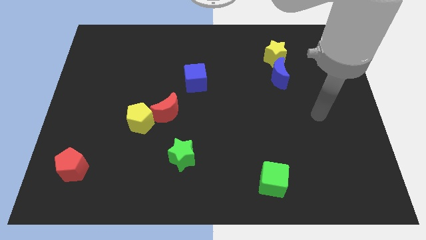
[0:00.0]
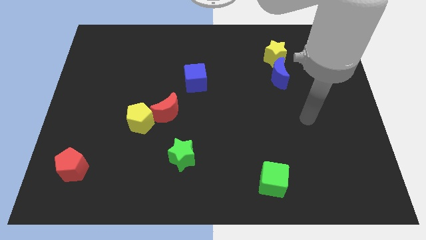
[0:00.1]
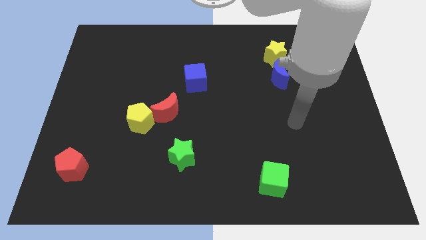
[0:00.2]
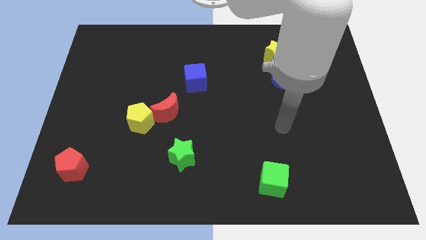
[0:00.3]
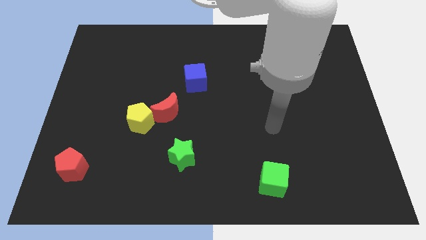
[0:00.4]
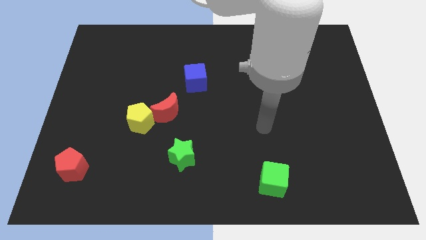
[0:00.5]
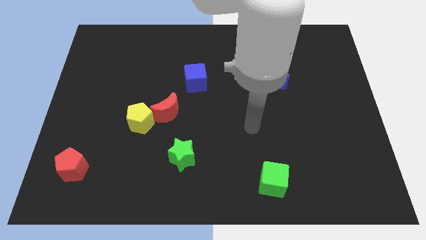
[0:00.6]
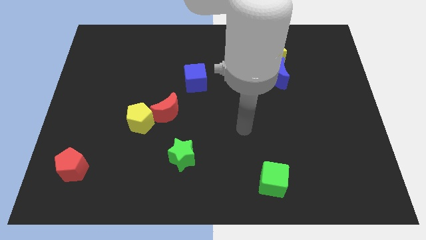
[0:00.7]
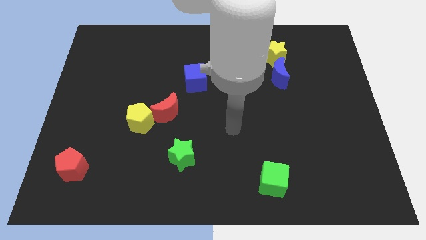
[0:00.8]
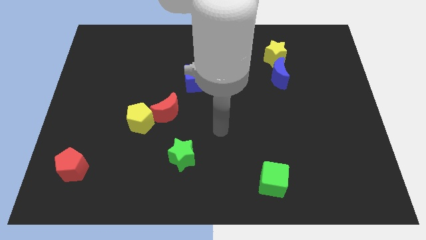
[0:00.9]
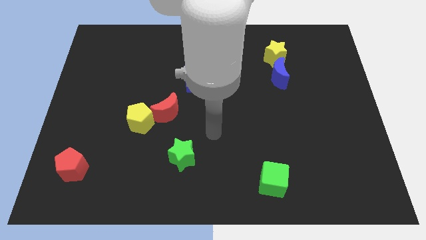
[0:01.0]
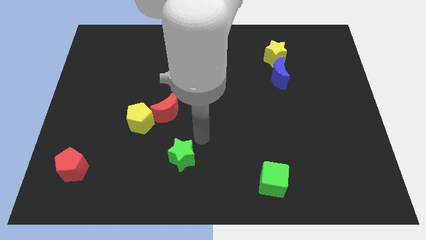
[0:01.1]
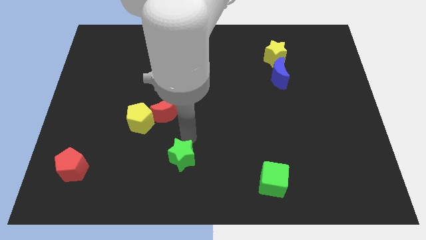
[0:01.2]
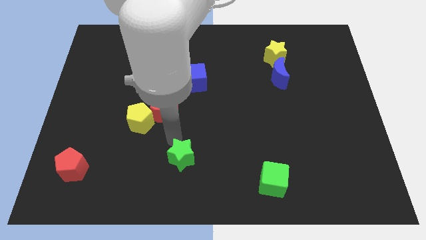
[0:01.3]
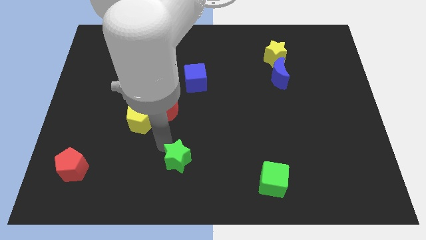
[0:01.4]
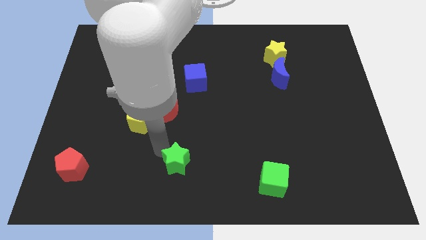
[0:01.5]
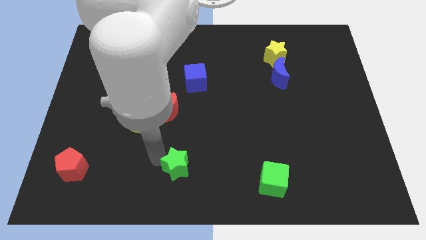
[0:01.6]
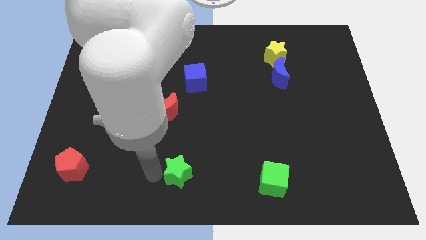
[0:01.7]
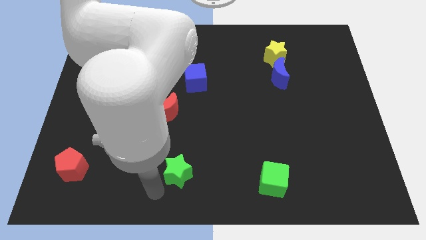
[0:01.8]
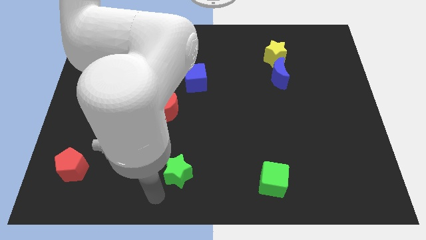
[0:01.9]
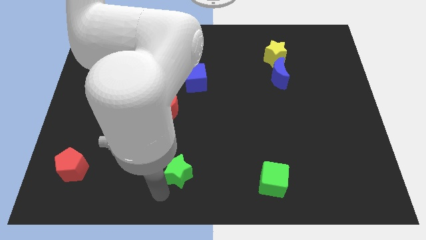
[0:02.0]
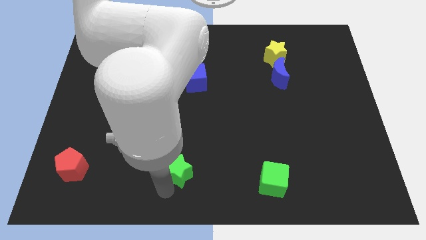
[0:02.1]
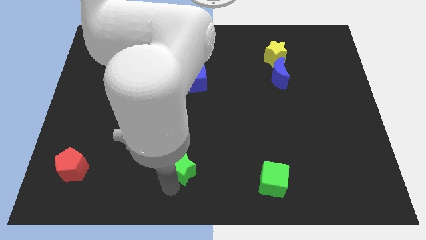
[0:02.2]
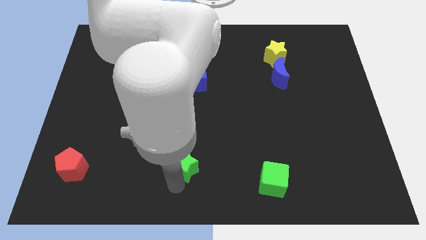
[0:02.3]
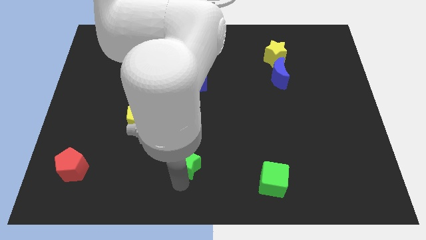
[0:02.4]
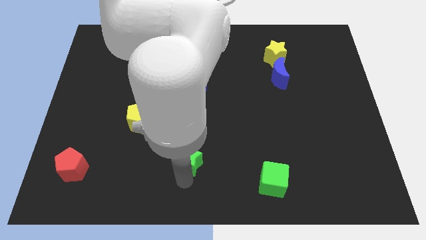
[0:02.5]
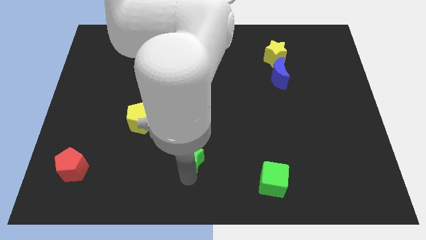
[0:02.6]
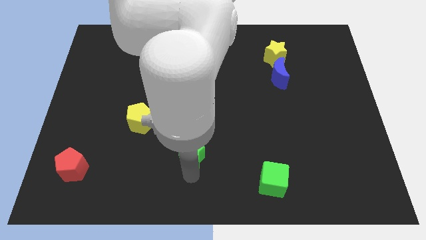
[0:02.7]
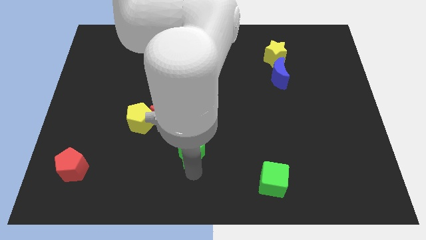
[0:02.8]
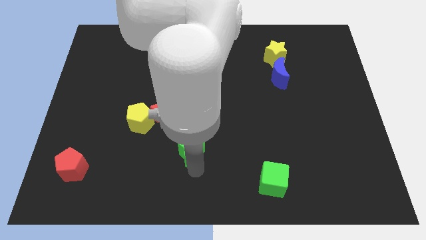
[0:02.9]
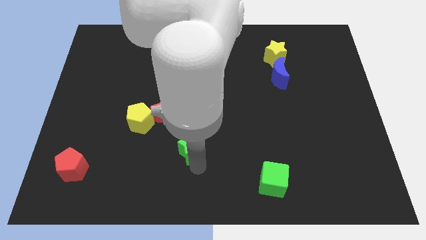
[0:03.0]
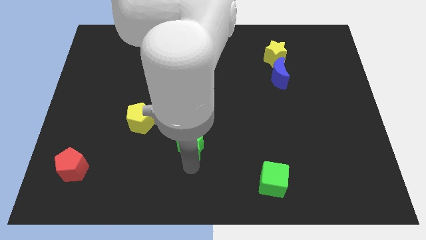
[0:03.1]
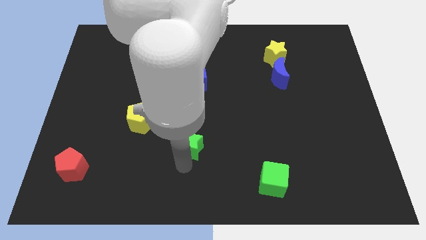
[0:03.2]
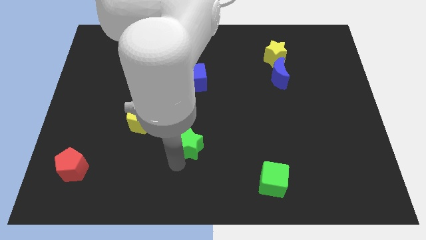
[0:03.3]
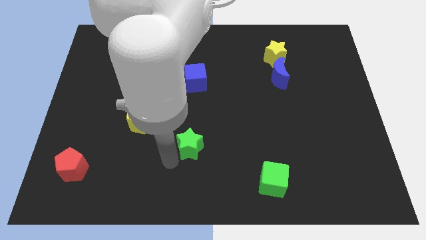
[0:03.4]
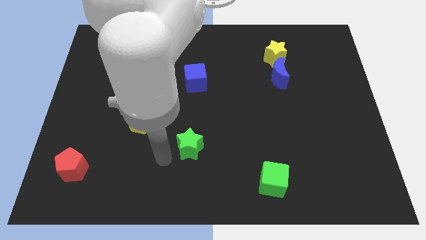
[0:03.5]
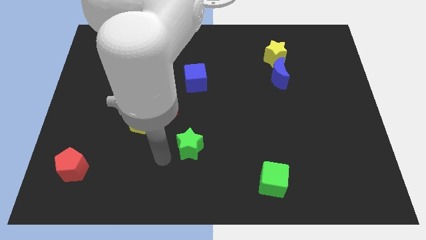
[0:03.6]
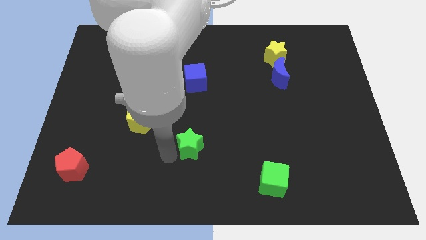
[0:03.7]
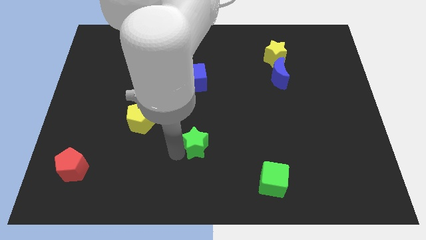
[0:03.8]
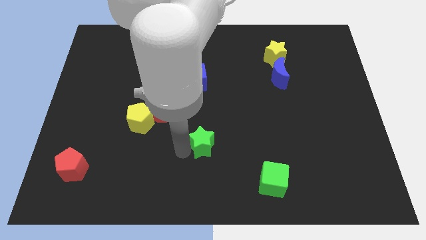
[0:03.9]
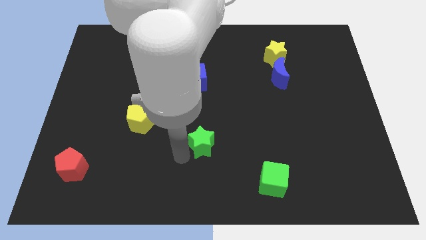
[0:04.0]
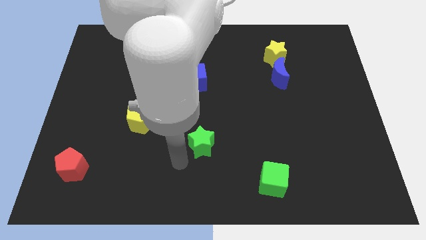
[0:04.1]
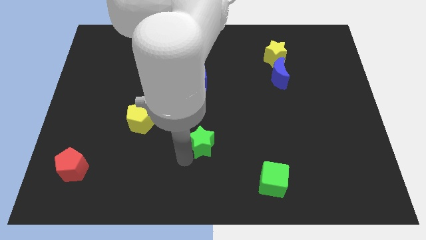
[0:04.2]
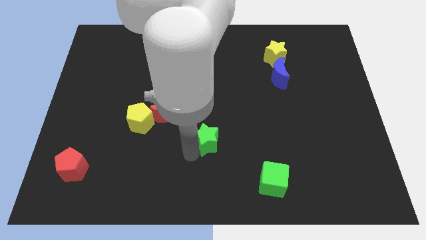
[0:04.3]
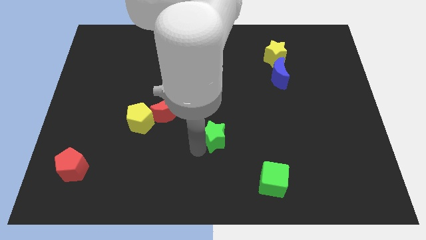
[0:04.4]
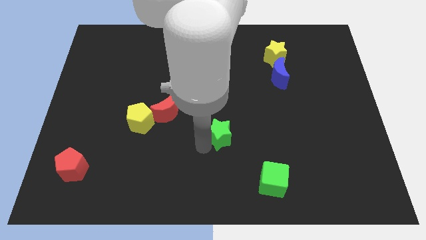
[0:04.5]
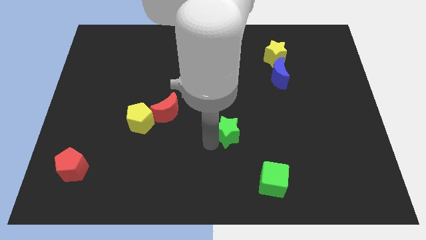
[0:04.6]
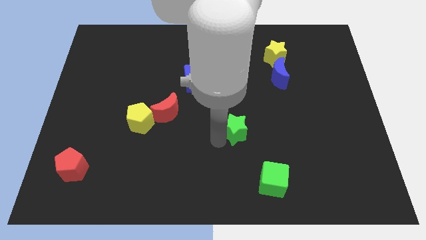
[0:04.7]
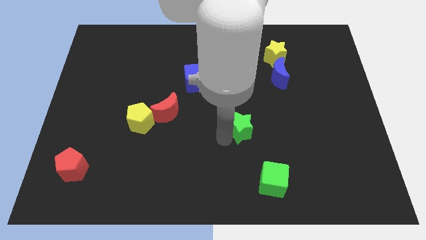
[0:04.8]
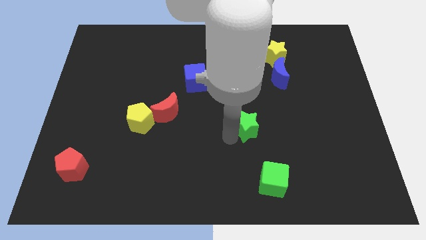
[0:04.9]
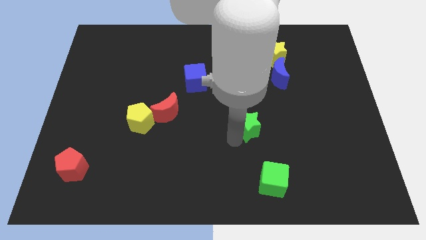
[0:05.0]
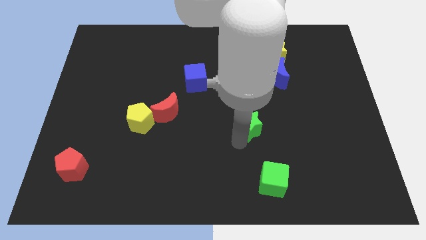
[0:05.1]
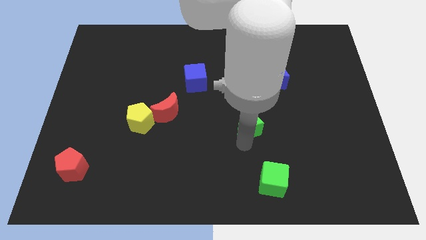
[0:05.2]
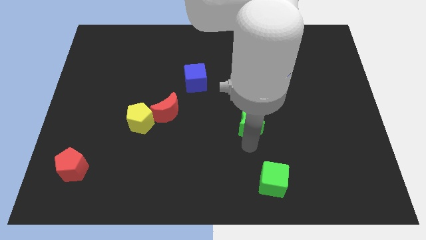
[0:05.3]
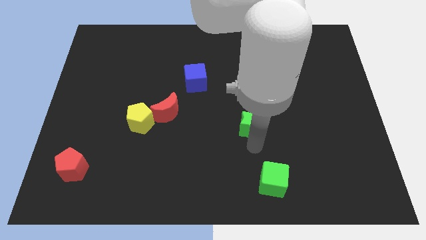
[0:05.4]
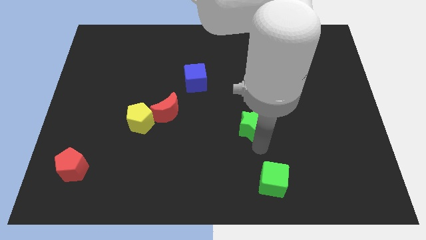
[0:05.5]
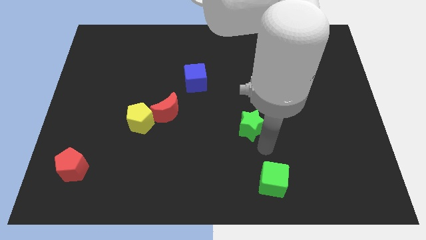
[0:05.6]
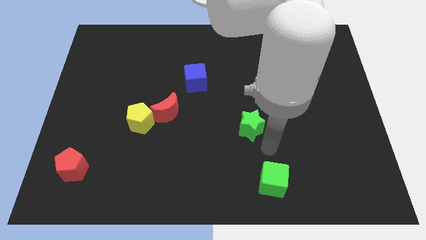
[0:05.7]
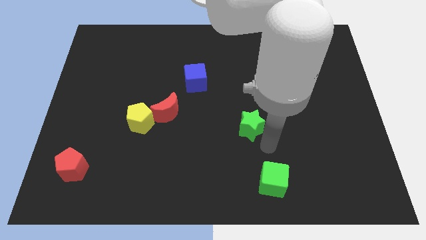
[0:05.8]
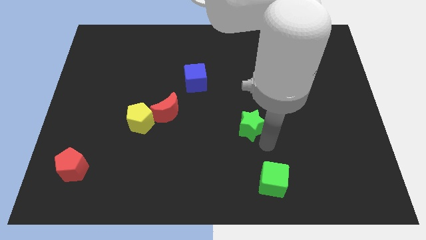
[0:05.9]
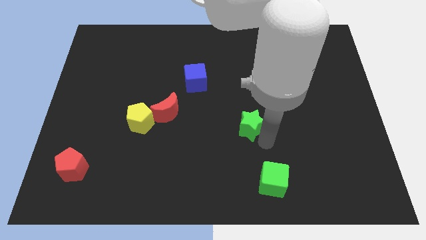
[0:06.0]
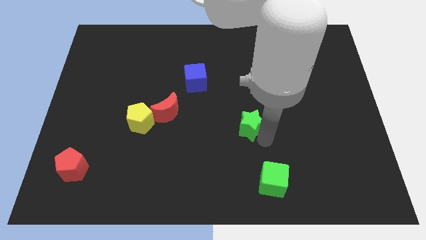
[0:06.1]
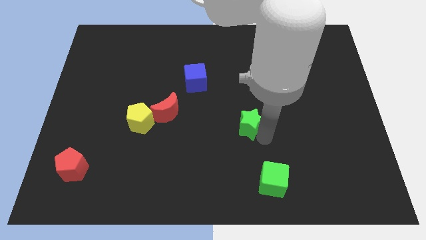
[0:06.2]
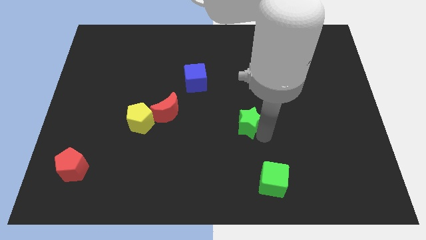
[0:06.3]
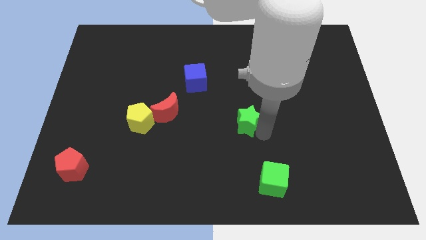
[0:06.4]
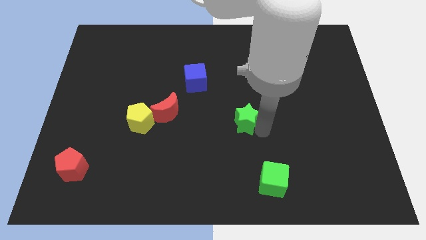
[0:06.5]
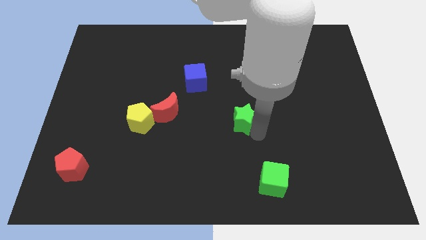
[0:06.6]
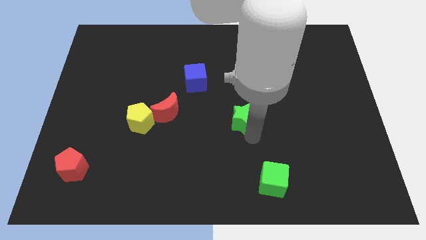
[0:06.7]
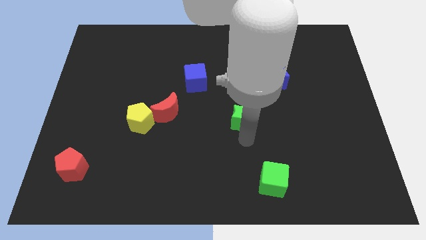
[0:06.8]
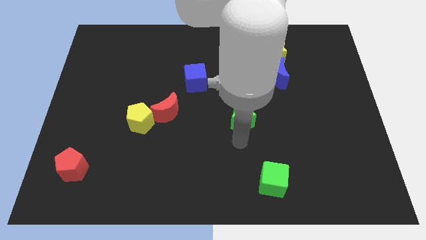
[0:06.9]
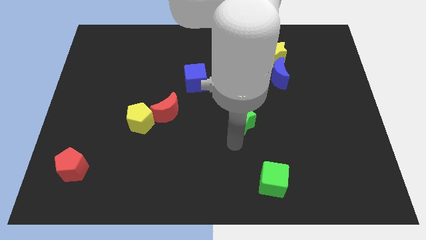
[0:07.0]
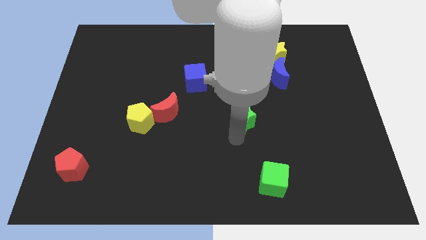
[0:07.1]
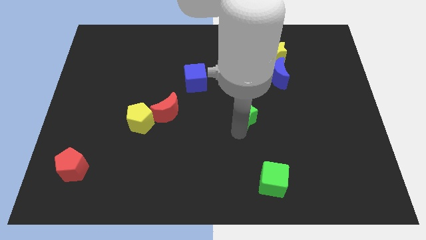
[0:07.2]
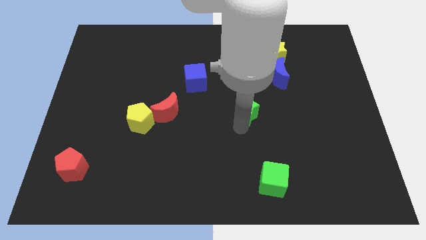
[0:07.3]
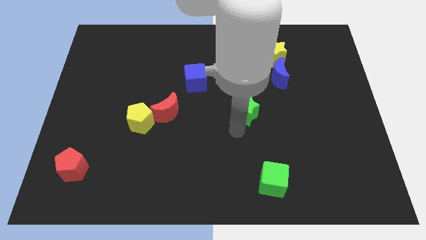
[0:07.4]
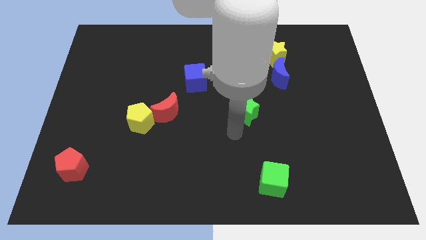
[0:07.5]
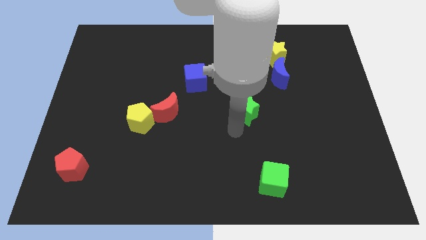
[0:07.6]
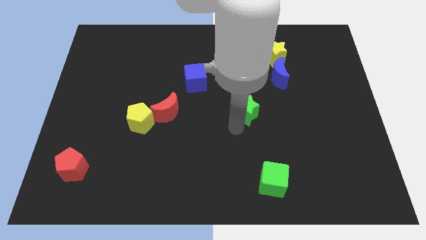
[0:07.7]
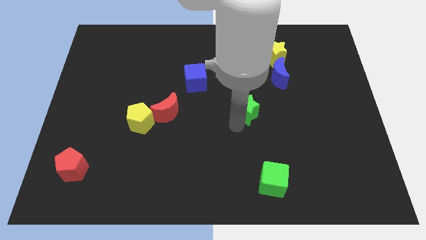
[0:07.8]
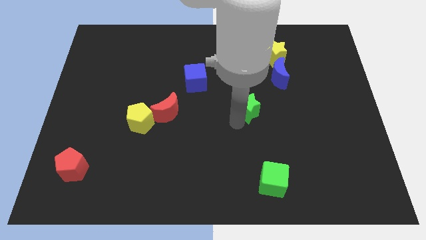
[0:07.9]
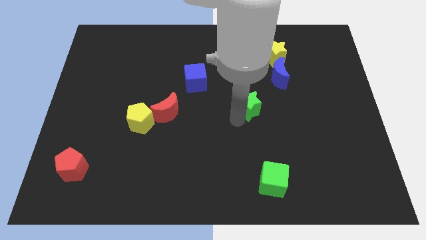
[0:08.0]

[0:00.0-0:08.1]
slide the green star to the bottom left side of the blue moon
